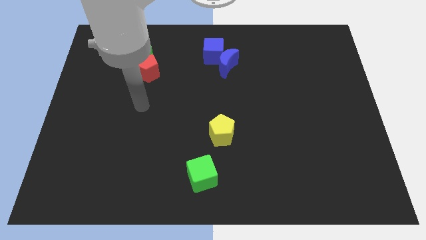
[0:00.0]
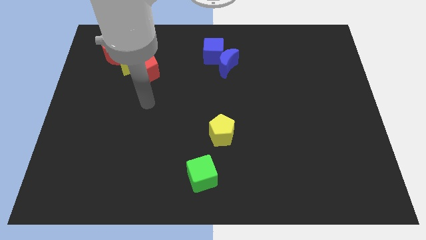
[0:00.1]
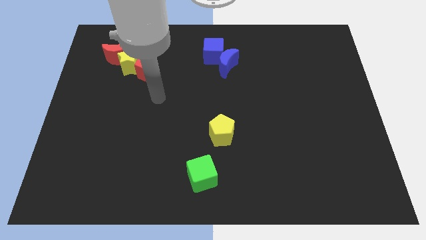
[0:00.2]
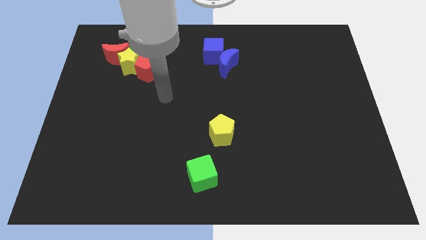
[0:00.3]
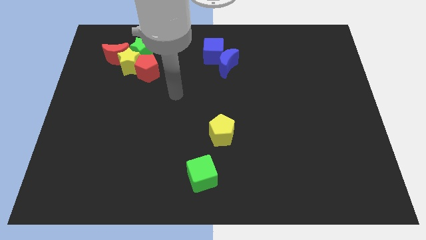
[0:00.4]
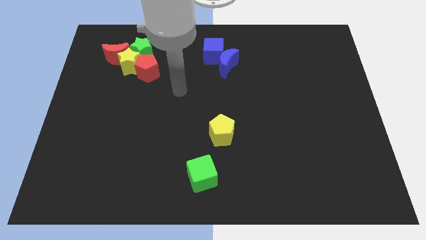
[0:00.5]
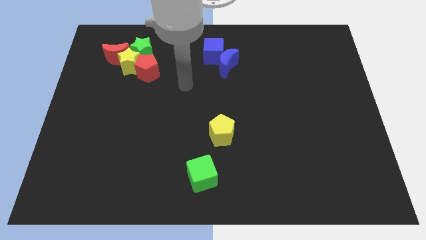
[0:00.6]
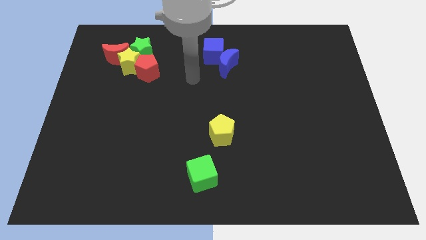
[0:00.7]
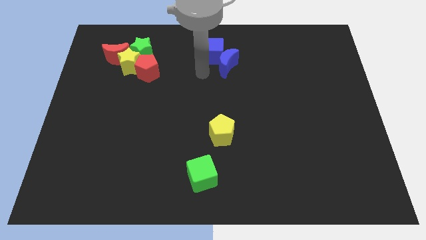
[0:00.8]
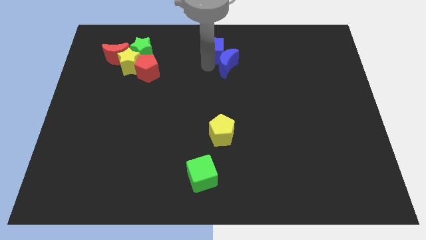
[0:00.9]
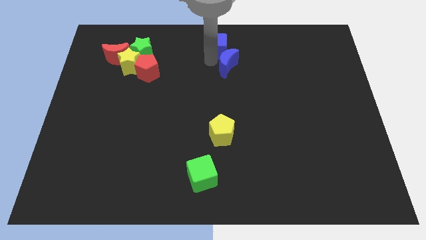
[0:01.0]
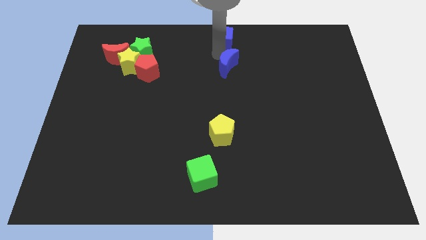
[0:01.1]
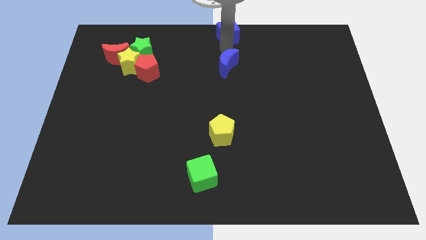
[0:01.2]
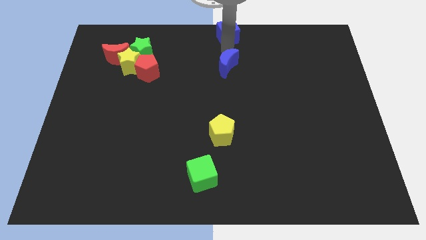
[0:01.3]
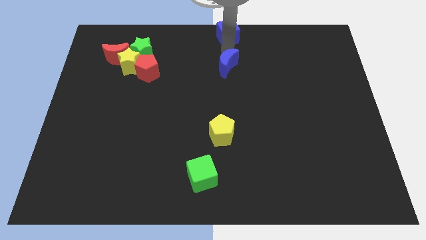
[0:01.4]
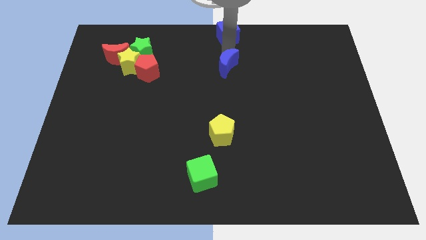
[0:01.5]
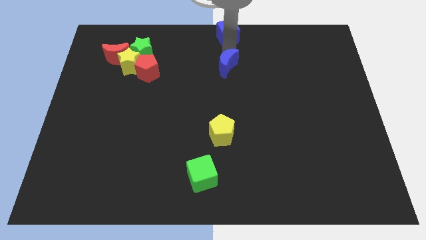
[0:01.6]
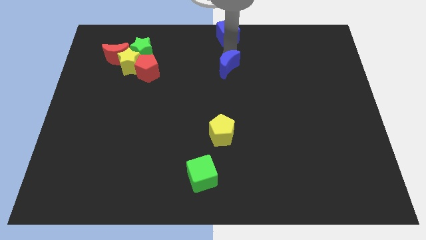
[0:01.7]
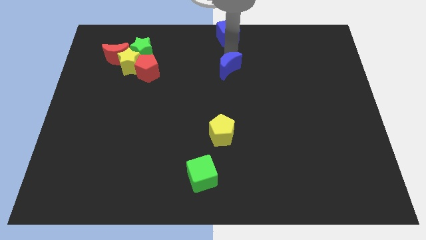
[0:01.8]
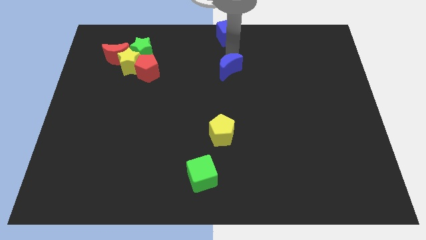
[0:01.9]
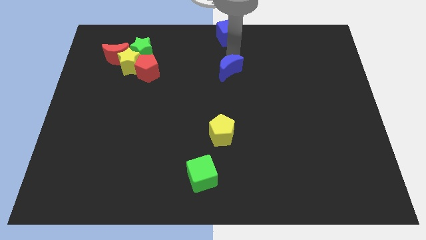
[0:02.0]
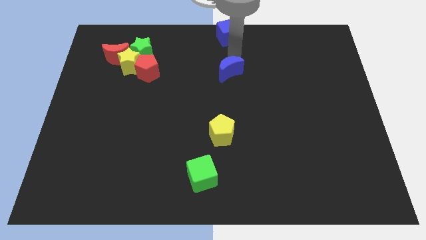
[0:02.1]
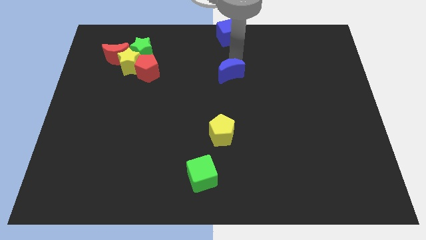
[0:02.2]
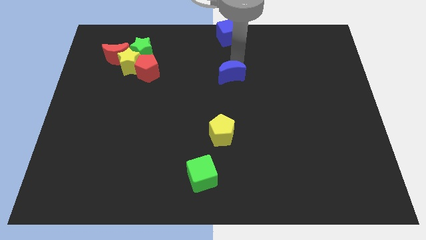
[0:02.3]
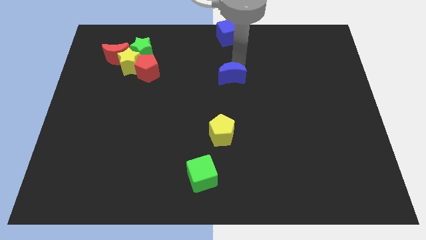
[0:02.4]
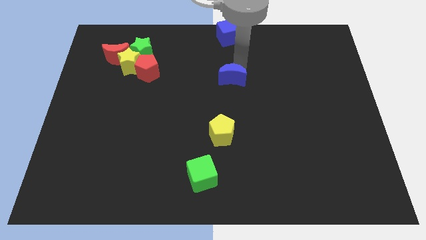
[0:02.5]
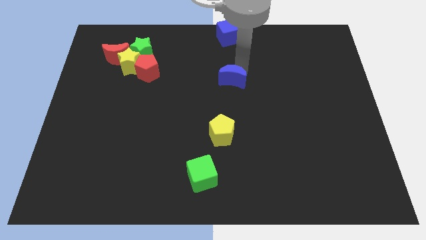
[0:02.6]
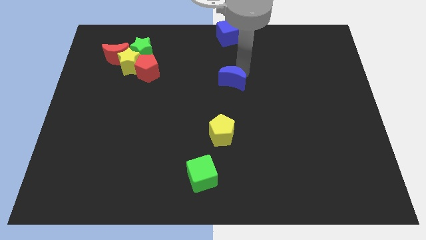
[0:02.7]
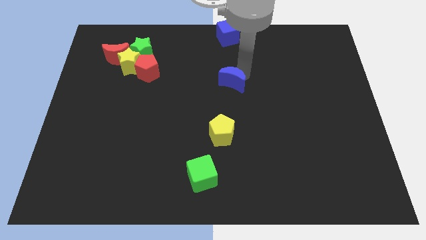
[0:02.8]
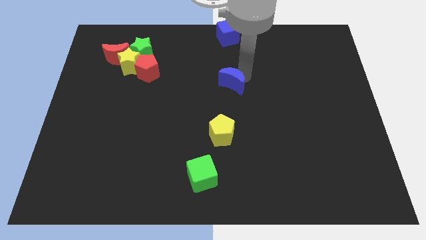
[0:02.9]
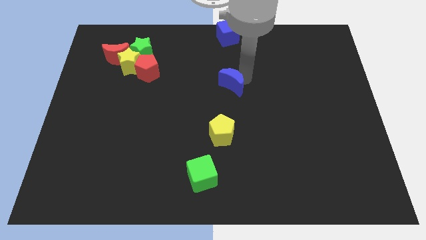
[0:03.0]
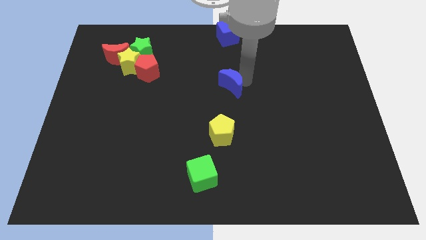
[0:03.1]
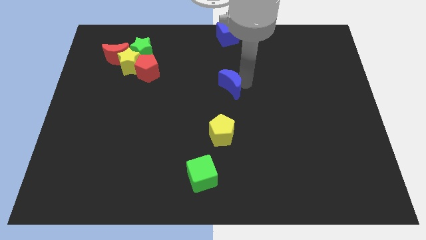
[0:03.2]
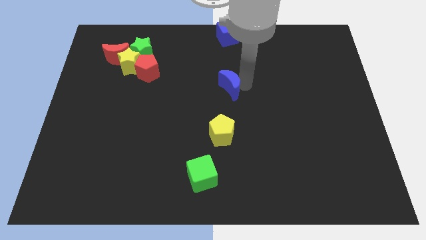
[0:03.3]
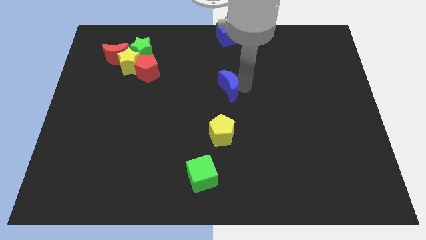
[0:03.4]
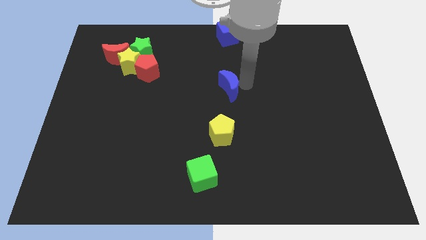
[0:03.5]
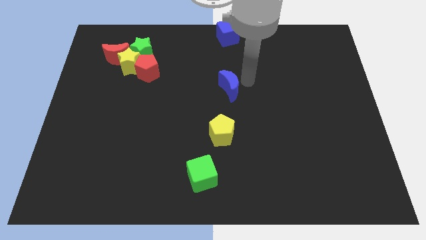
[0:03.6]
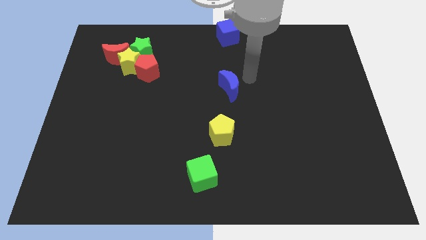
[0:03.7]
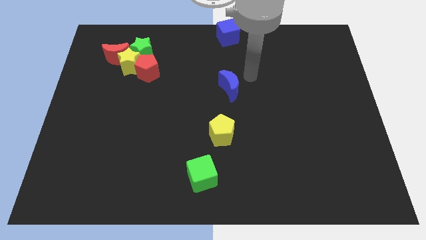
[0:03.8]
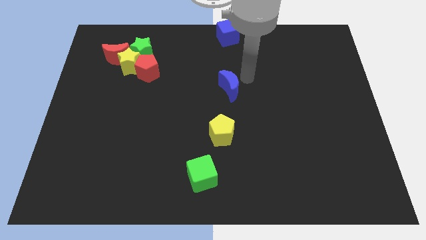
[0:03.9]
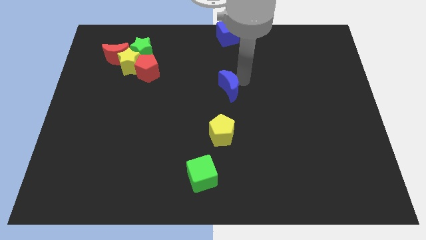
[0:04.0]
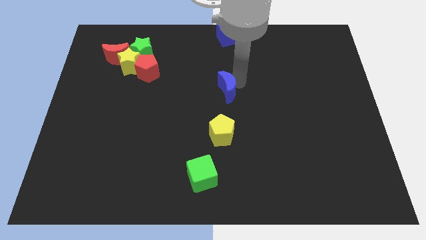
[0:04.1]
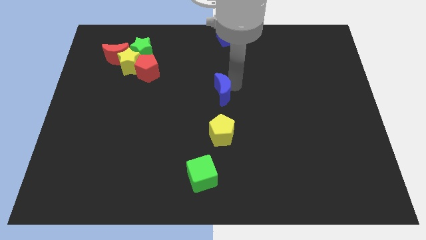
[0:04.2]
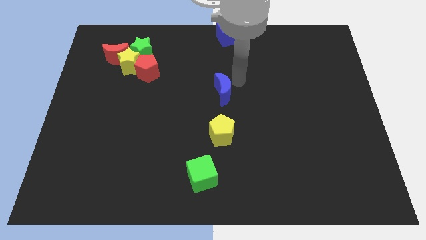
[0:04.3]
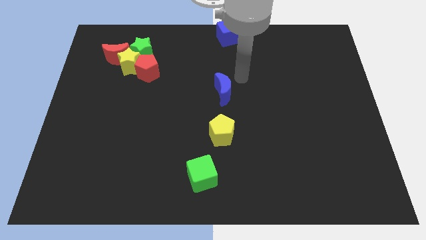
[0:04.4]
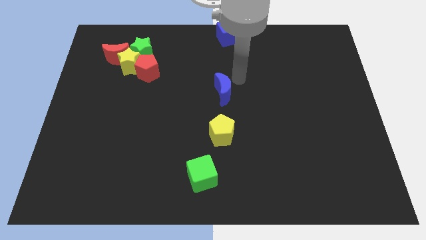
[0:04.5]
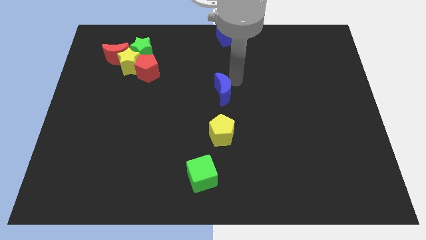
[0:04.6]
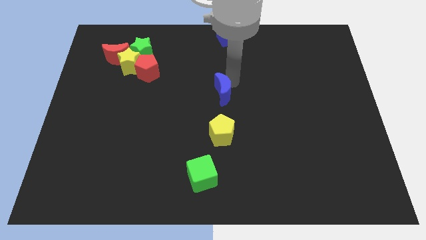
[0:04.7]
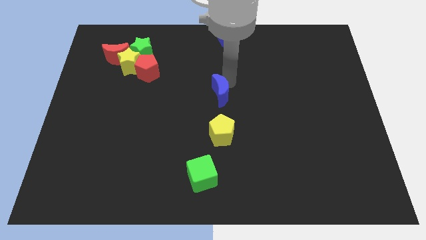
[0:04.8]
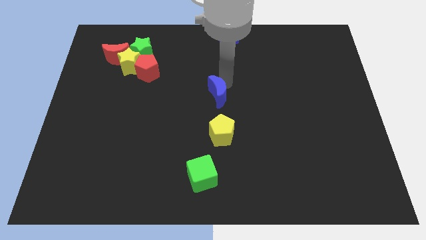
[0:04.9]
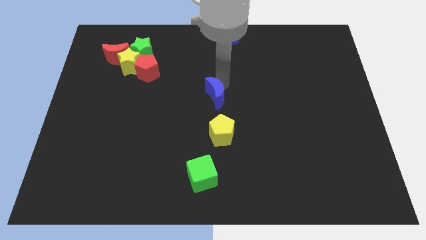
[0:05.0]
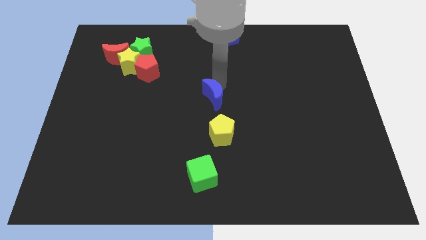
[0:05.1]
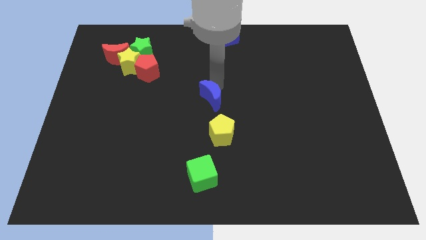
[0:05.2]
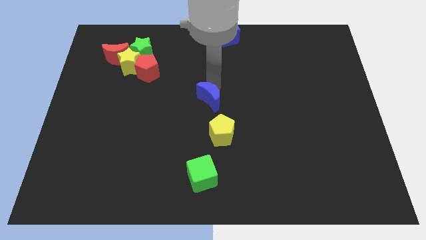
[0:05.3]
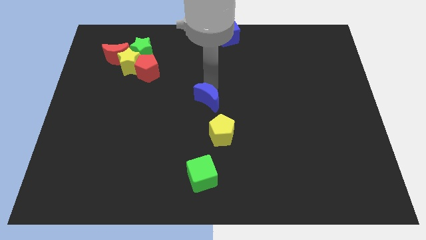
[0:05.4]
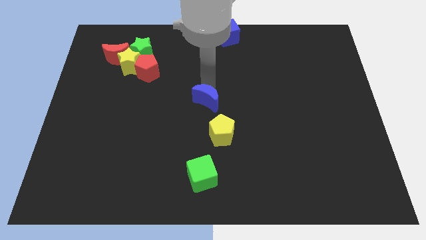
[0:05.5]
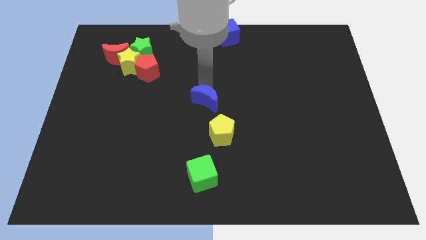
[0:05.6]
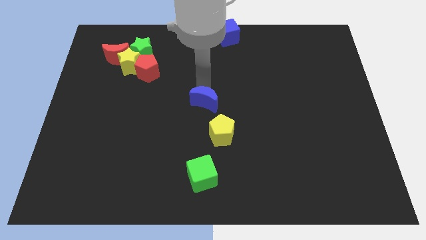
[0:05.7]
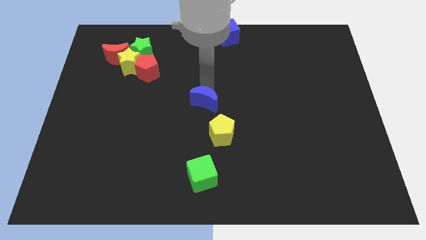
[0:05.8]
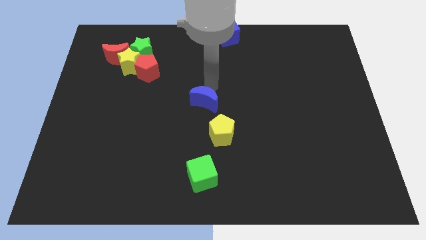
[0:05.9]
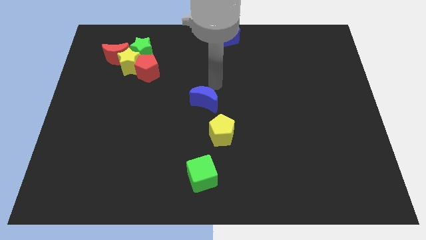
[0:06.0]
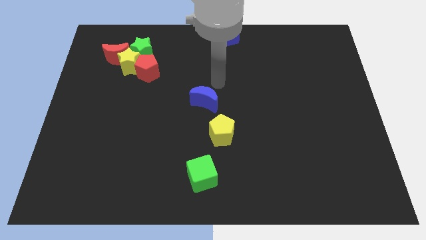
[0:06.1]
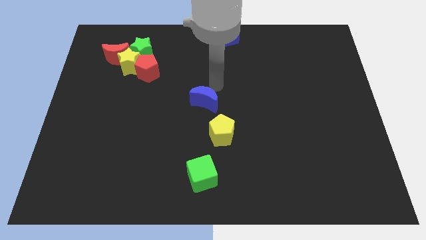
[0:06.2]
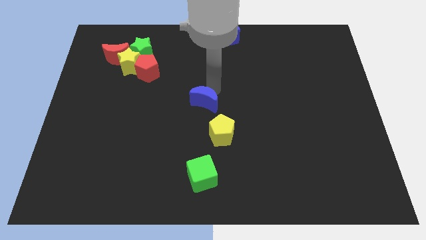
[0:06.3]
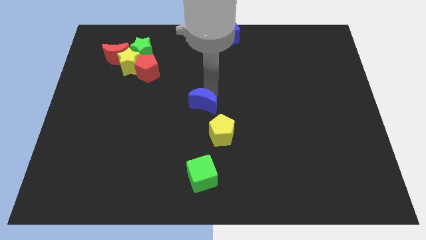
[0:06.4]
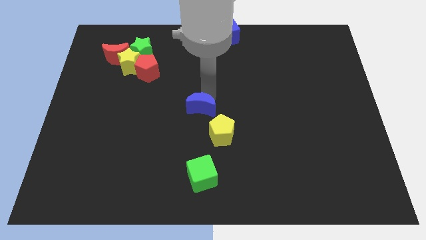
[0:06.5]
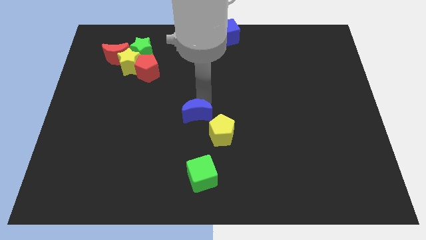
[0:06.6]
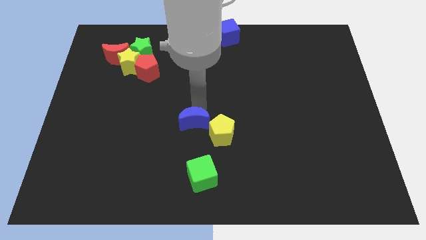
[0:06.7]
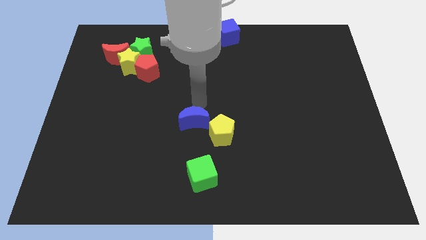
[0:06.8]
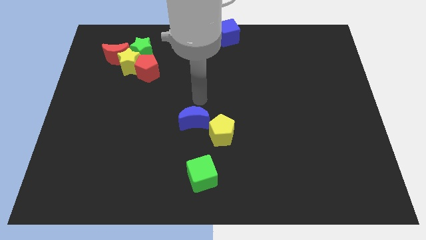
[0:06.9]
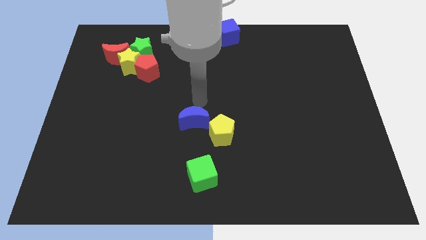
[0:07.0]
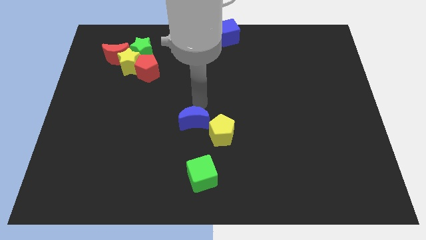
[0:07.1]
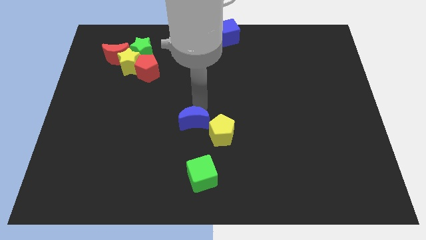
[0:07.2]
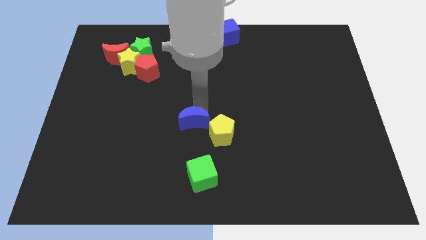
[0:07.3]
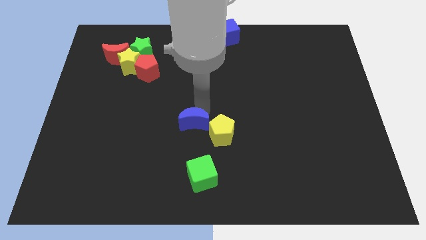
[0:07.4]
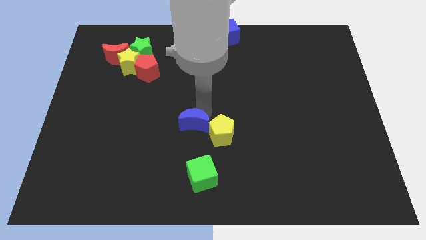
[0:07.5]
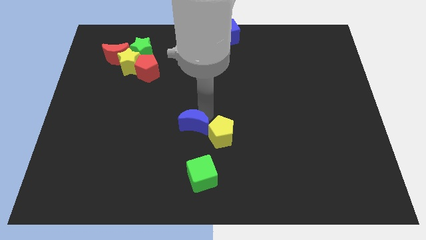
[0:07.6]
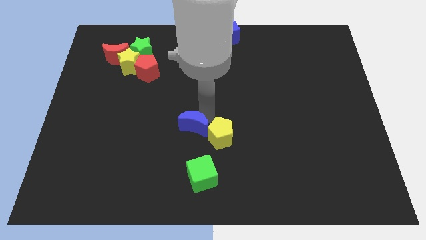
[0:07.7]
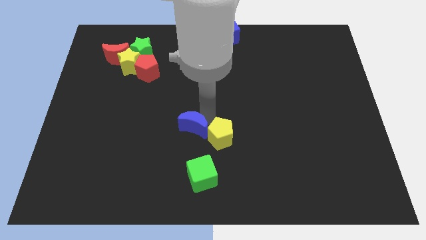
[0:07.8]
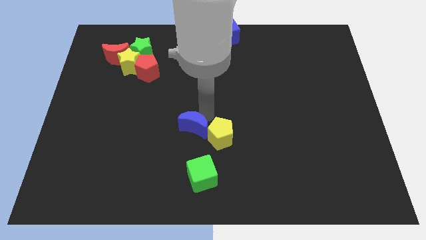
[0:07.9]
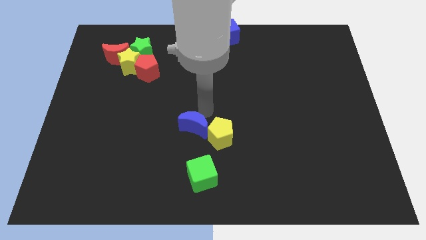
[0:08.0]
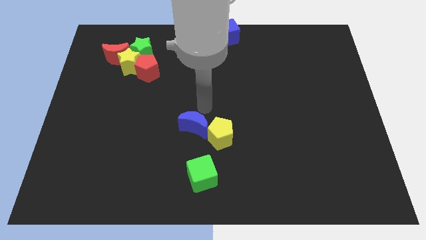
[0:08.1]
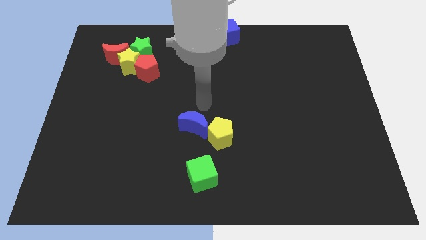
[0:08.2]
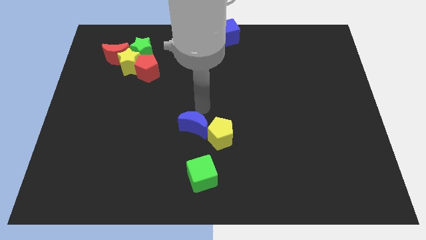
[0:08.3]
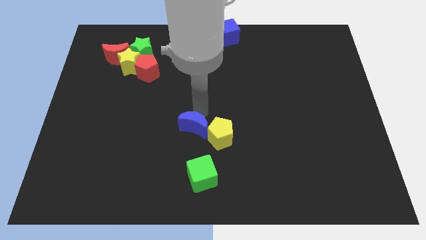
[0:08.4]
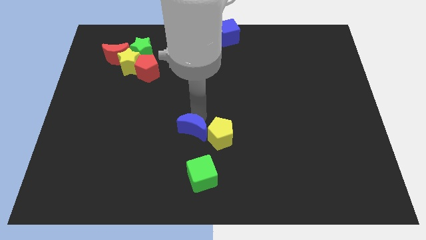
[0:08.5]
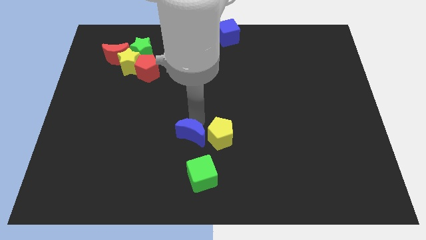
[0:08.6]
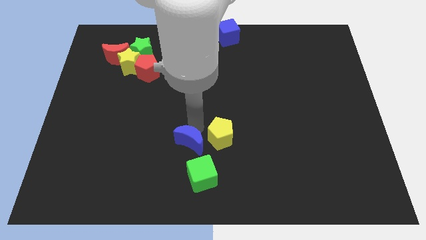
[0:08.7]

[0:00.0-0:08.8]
slide the blue moon to the top left of the green cube
